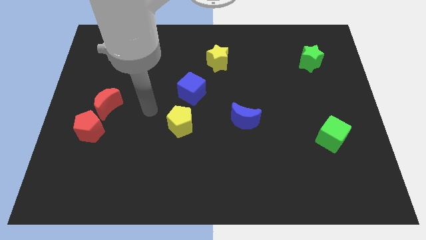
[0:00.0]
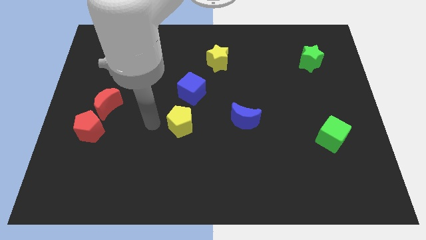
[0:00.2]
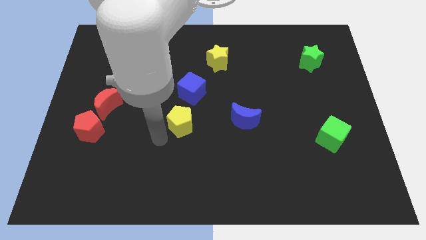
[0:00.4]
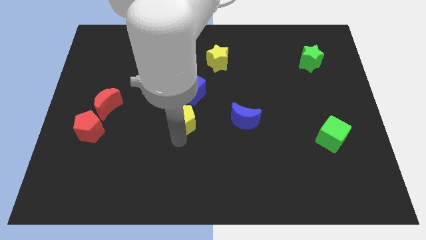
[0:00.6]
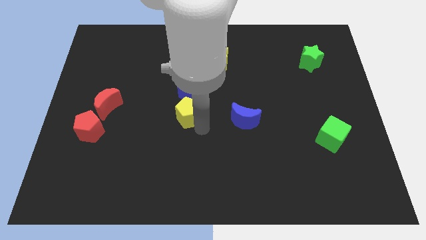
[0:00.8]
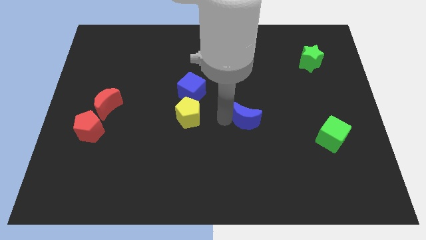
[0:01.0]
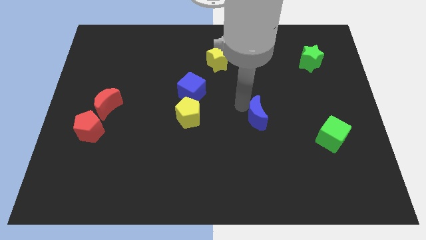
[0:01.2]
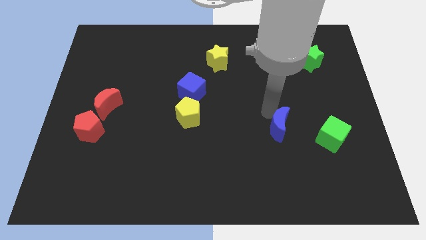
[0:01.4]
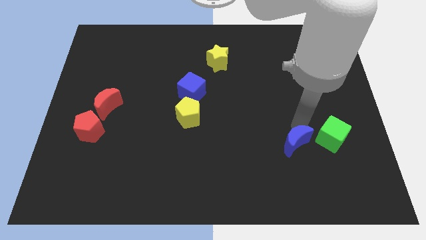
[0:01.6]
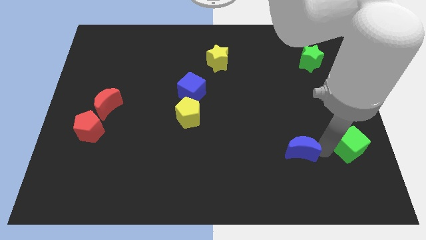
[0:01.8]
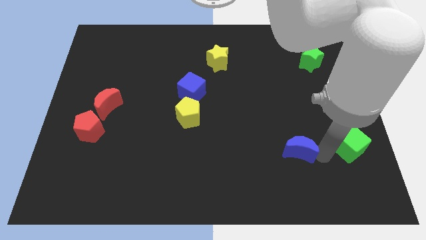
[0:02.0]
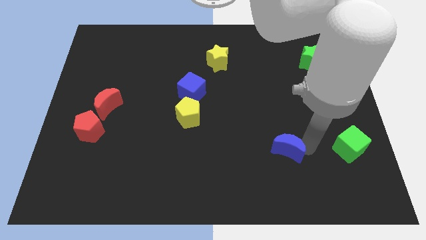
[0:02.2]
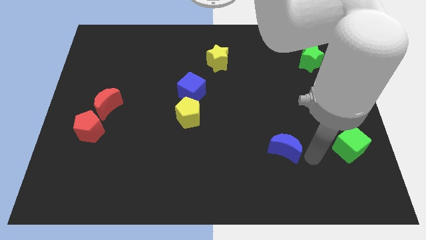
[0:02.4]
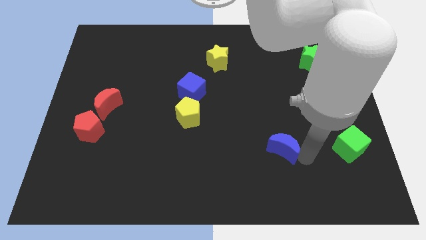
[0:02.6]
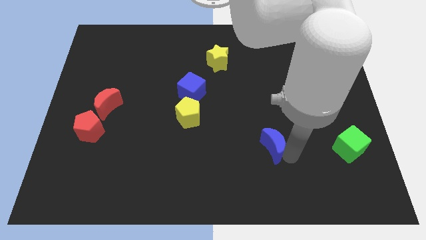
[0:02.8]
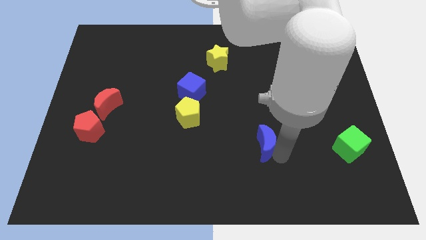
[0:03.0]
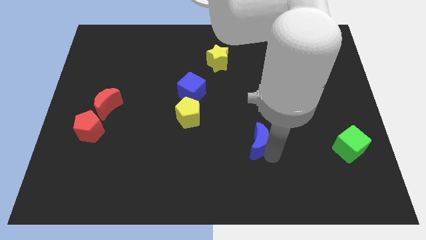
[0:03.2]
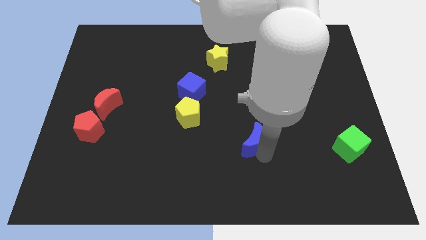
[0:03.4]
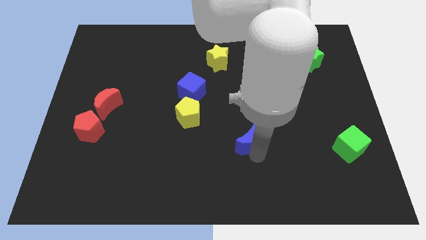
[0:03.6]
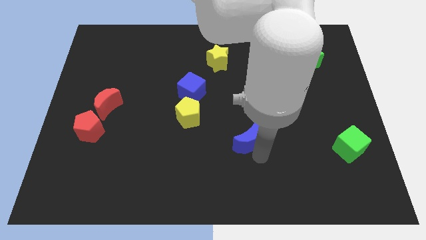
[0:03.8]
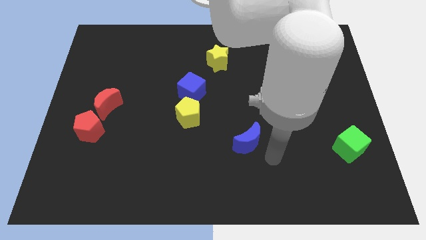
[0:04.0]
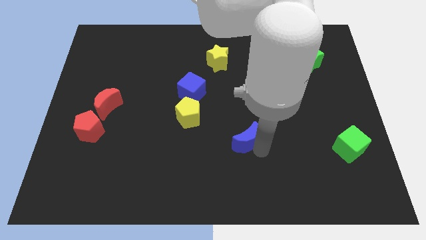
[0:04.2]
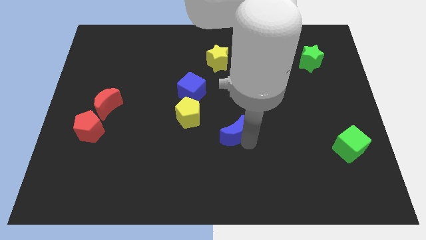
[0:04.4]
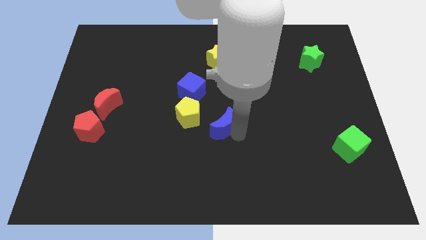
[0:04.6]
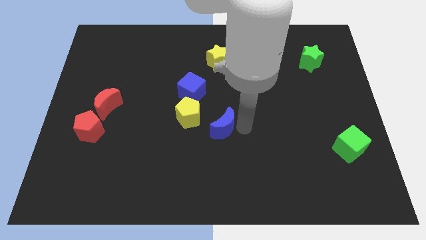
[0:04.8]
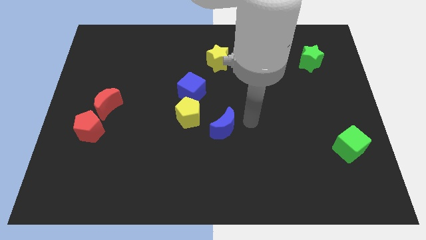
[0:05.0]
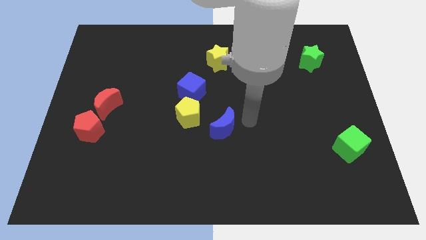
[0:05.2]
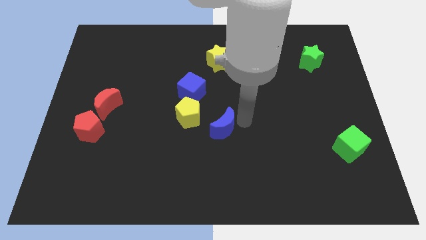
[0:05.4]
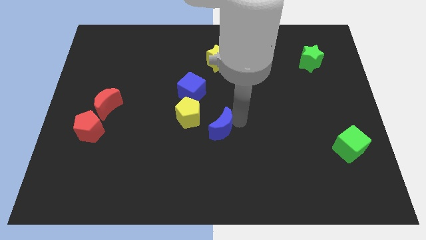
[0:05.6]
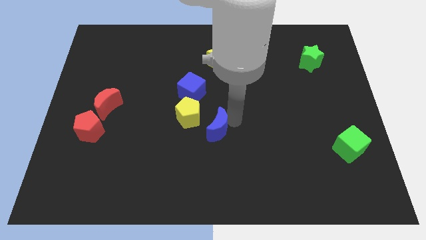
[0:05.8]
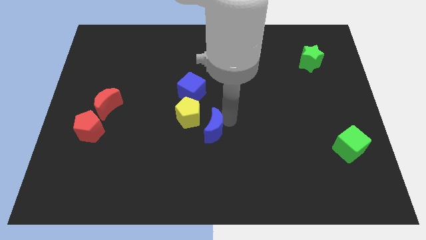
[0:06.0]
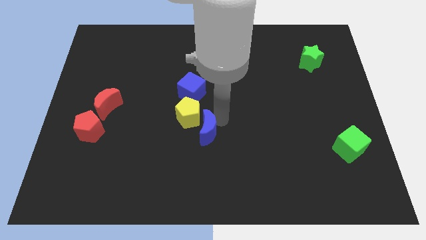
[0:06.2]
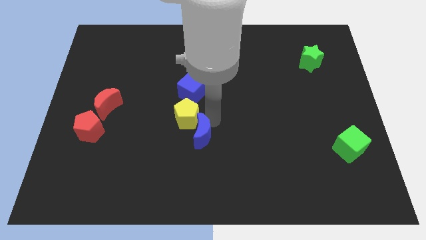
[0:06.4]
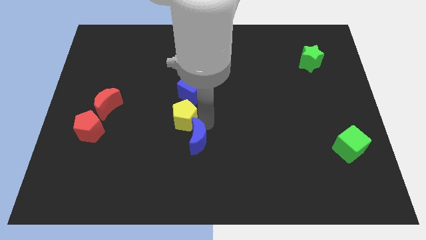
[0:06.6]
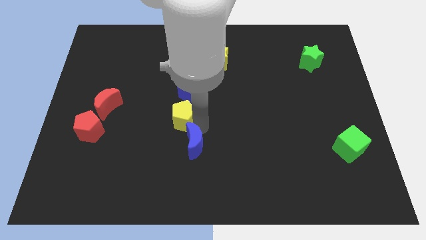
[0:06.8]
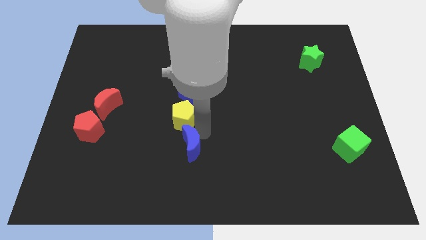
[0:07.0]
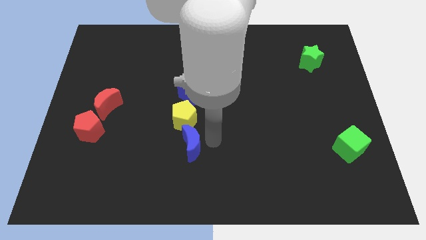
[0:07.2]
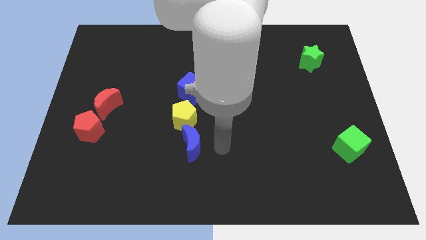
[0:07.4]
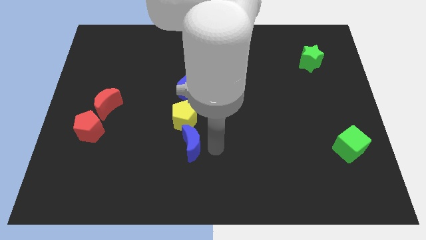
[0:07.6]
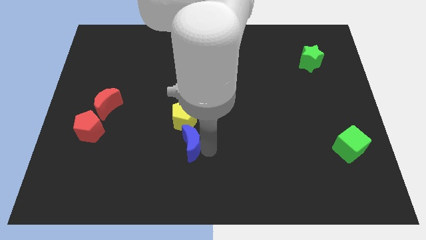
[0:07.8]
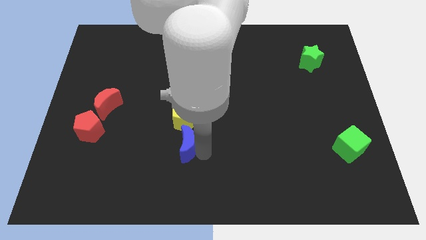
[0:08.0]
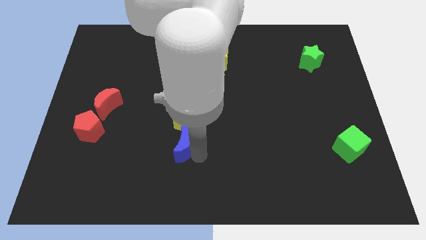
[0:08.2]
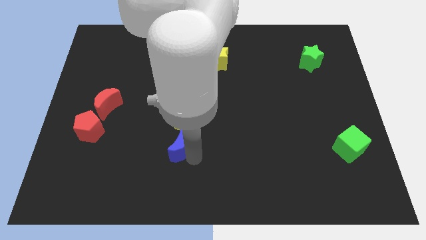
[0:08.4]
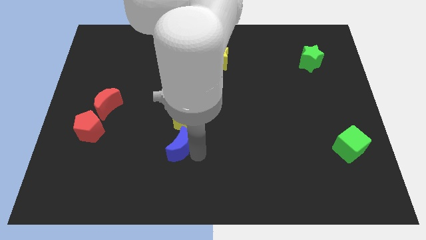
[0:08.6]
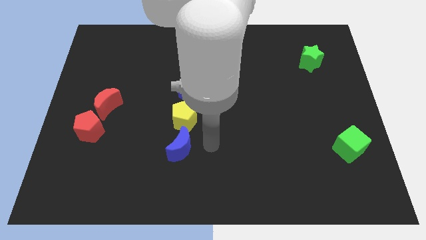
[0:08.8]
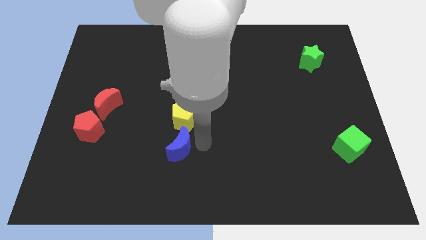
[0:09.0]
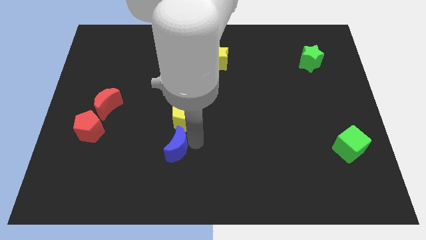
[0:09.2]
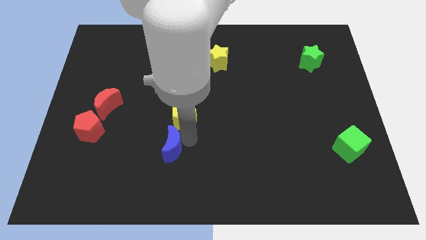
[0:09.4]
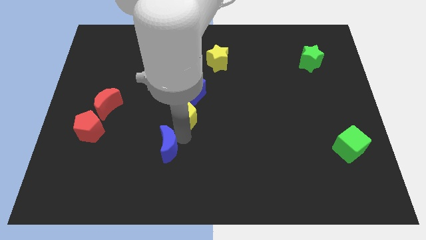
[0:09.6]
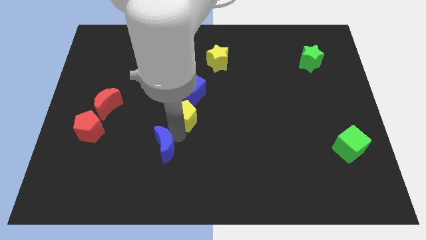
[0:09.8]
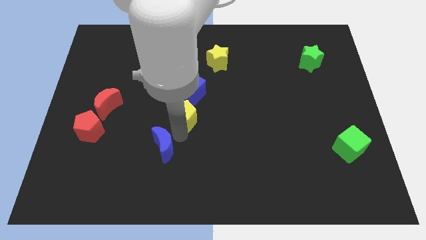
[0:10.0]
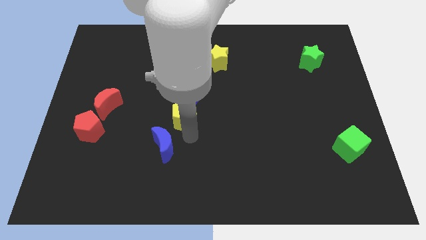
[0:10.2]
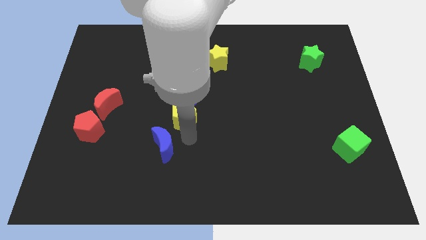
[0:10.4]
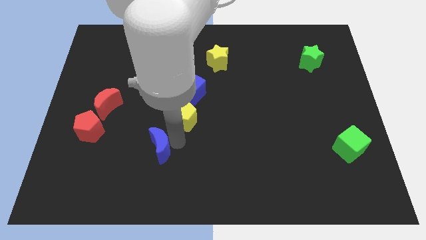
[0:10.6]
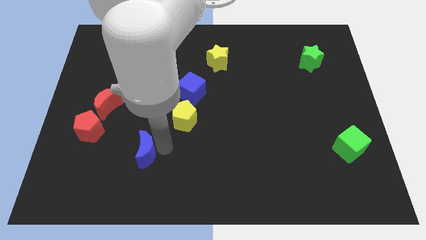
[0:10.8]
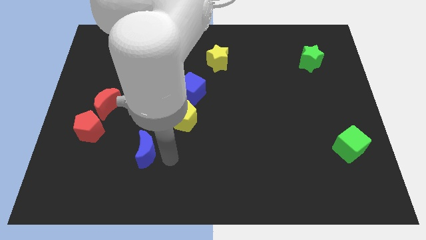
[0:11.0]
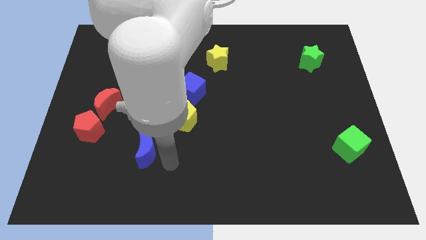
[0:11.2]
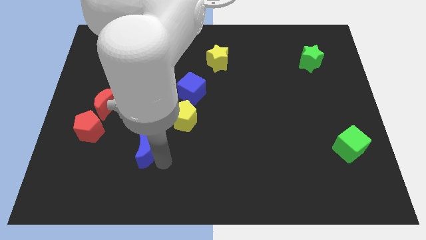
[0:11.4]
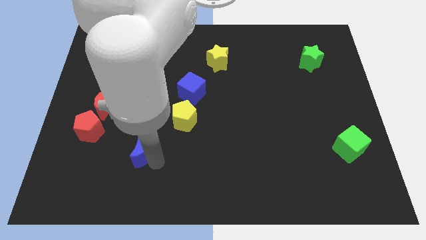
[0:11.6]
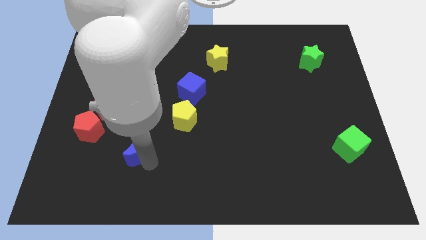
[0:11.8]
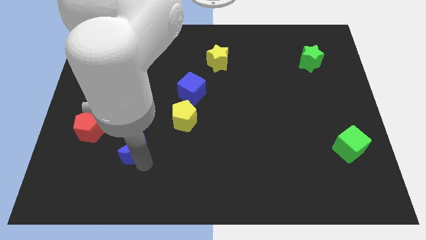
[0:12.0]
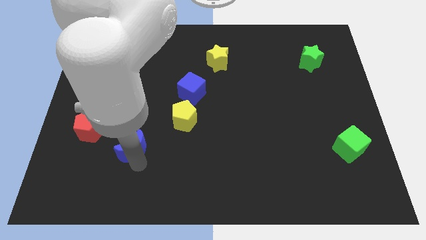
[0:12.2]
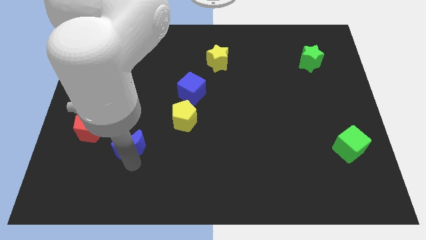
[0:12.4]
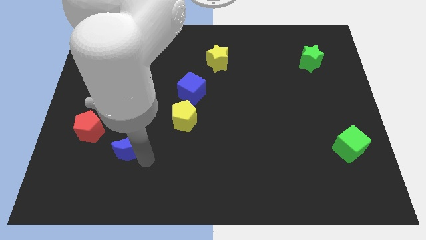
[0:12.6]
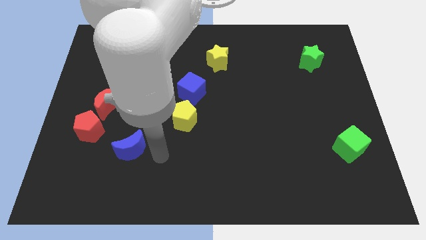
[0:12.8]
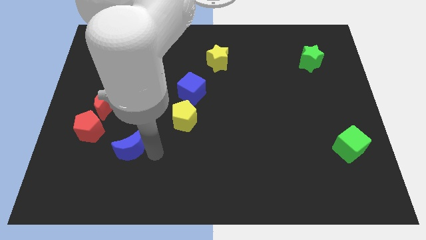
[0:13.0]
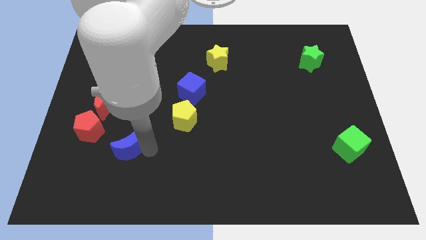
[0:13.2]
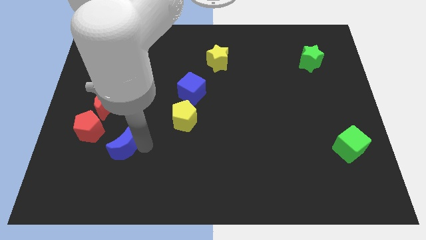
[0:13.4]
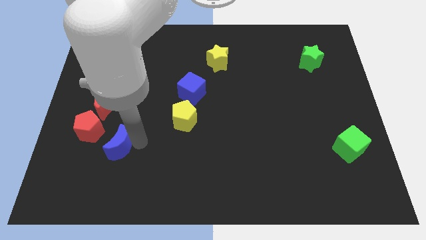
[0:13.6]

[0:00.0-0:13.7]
move the blue moon below the red moon

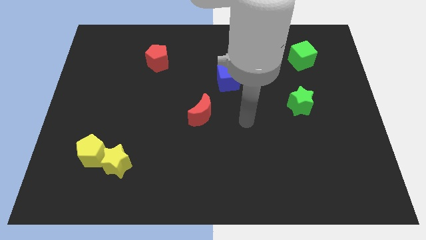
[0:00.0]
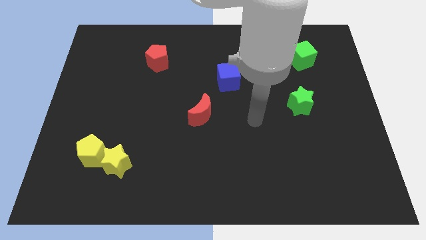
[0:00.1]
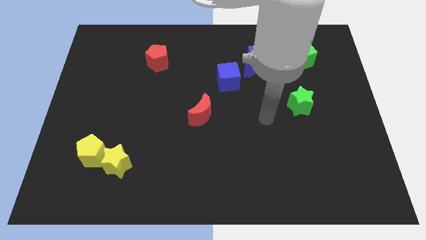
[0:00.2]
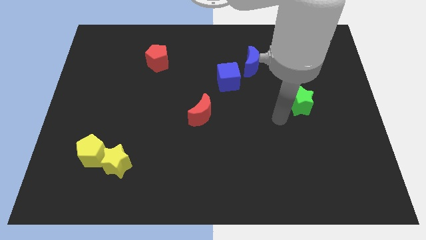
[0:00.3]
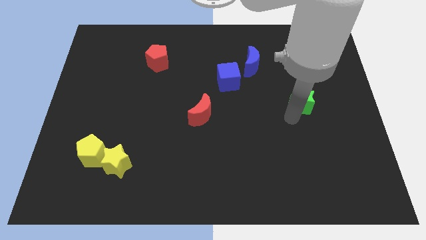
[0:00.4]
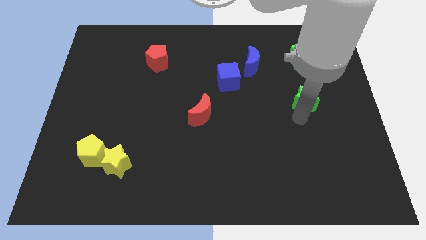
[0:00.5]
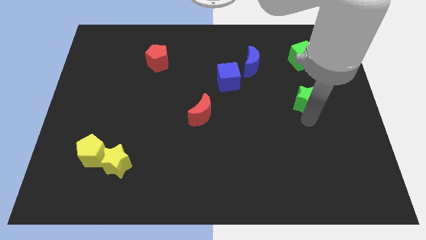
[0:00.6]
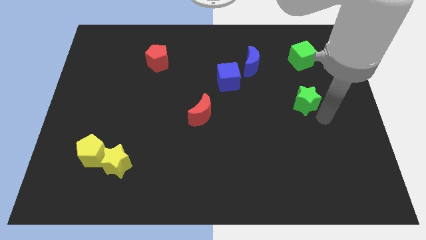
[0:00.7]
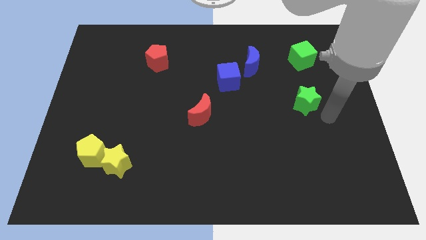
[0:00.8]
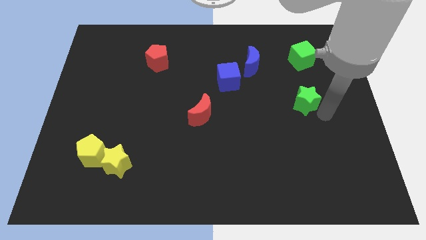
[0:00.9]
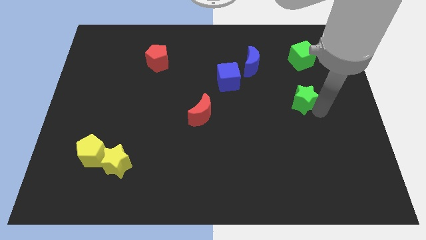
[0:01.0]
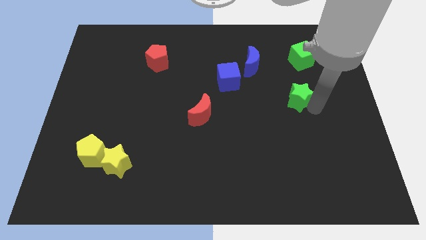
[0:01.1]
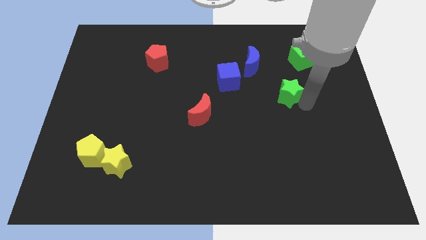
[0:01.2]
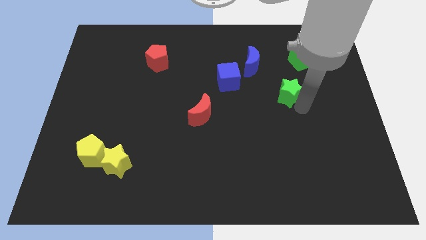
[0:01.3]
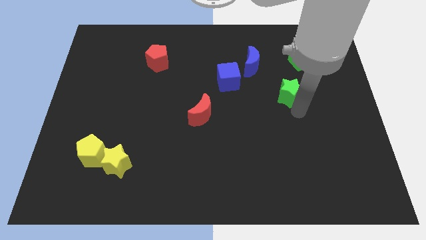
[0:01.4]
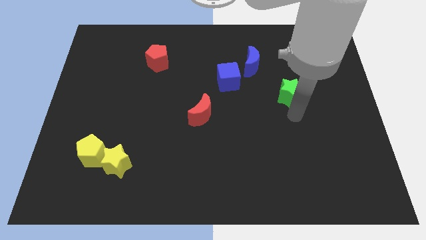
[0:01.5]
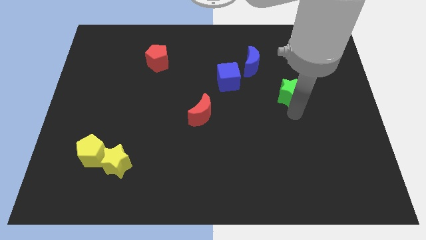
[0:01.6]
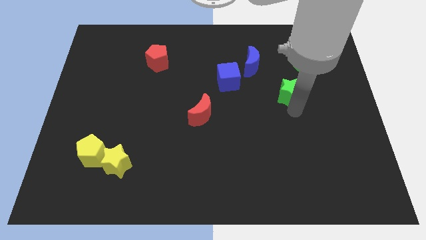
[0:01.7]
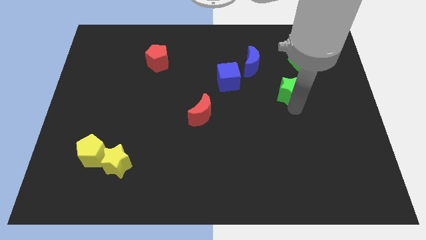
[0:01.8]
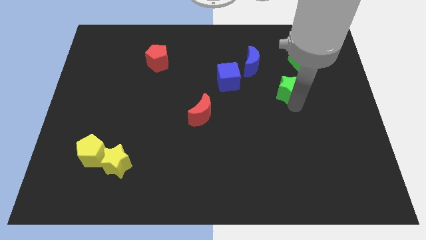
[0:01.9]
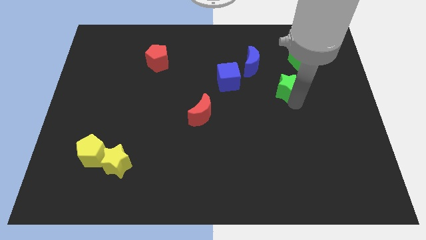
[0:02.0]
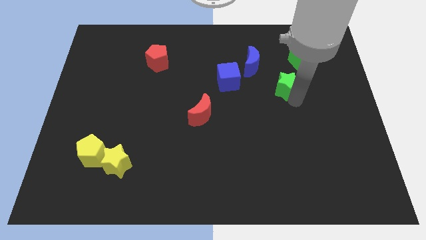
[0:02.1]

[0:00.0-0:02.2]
push the green star to the bottom left of the green cube
